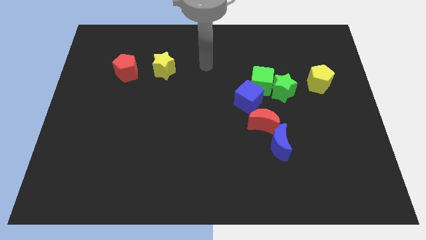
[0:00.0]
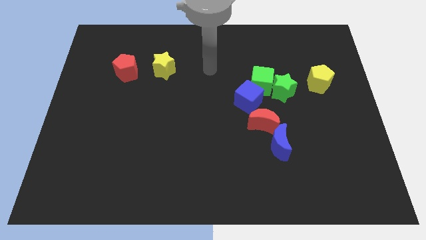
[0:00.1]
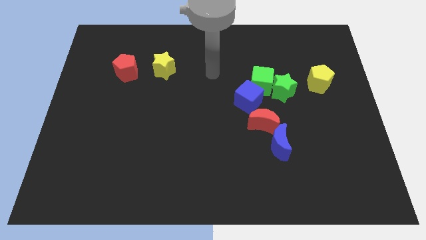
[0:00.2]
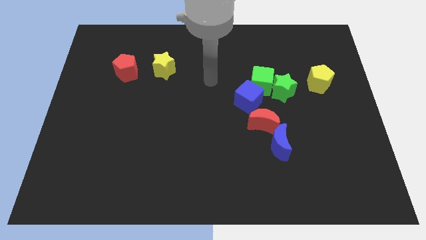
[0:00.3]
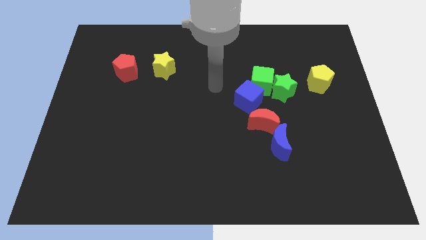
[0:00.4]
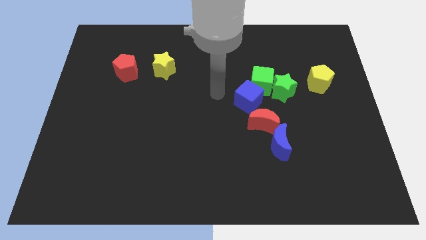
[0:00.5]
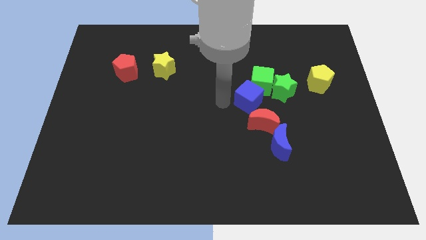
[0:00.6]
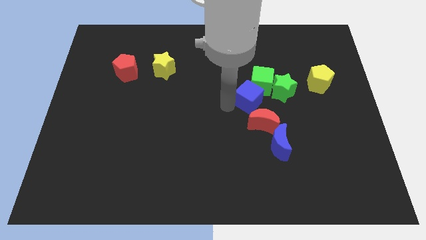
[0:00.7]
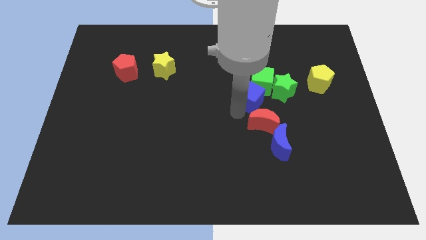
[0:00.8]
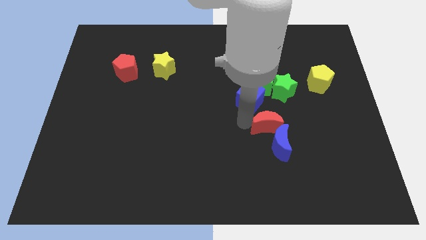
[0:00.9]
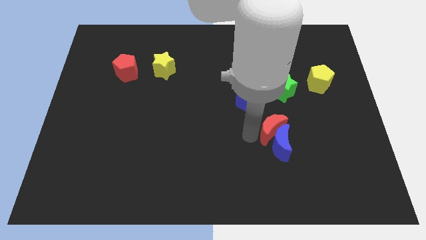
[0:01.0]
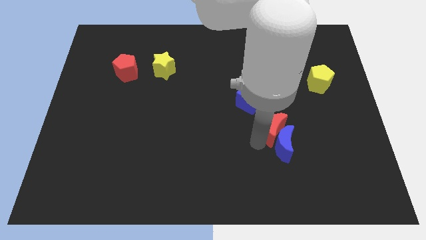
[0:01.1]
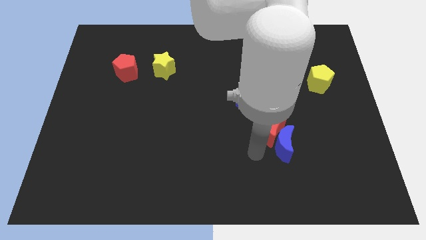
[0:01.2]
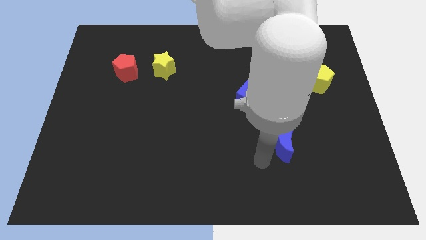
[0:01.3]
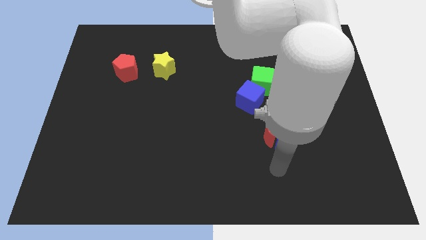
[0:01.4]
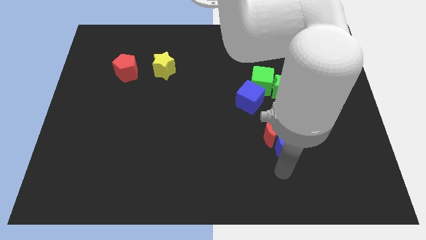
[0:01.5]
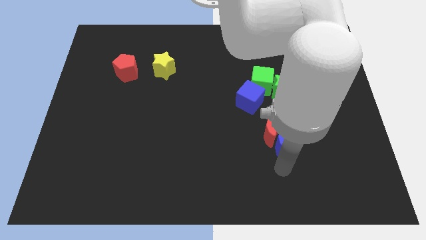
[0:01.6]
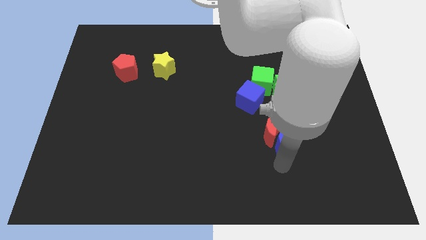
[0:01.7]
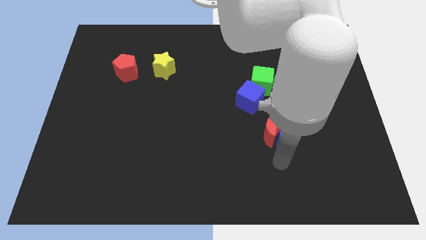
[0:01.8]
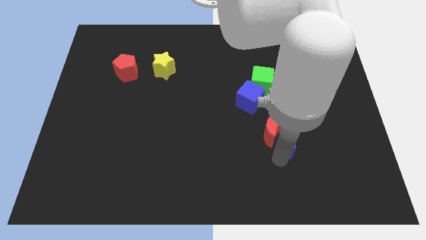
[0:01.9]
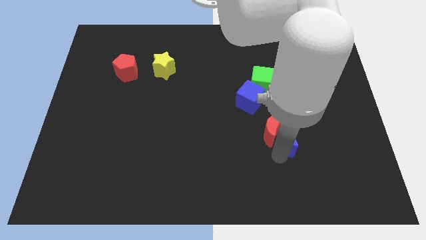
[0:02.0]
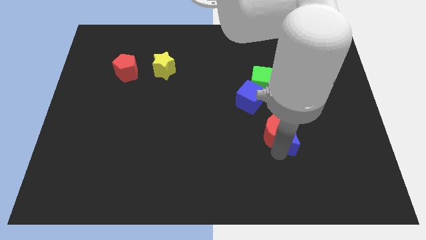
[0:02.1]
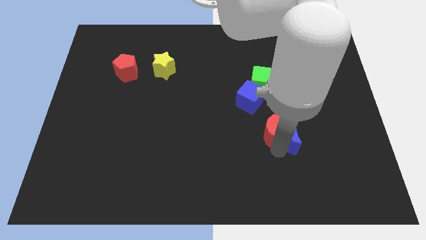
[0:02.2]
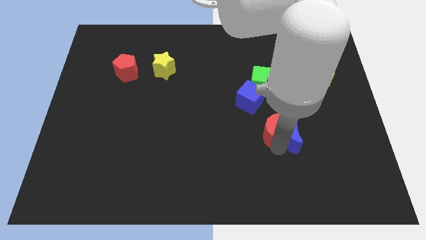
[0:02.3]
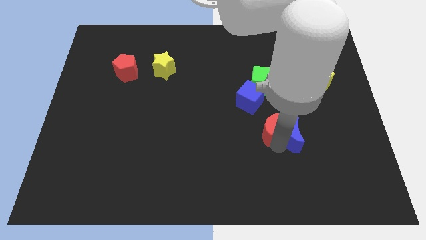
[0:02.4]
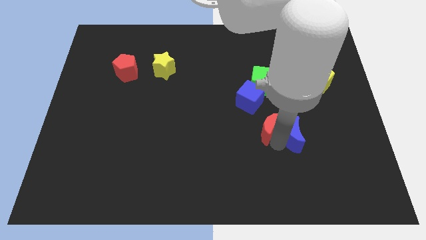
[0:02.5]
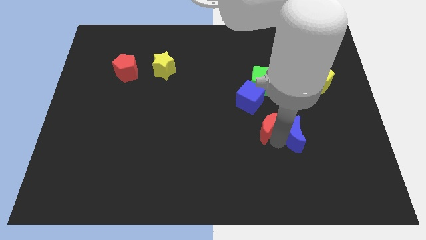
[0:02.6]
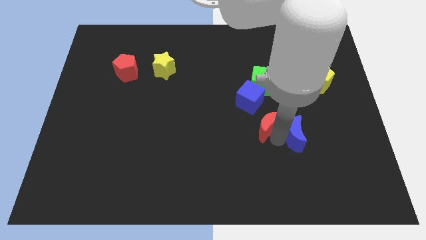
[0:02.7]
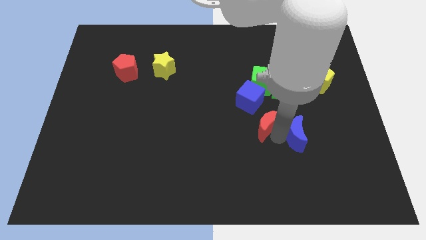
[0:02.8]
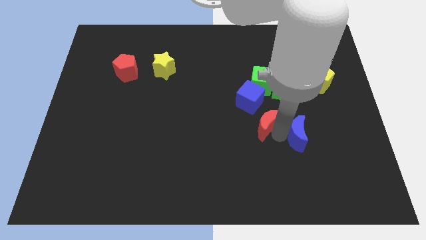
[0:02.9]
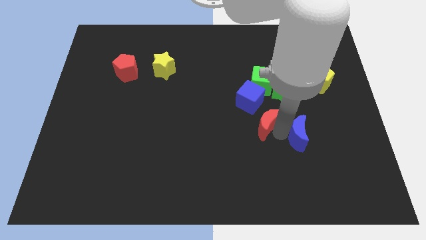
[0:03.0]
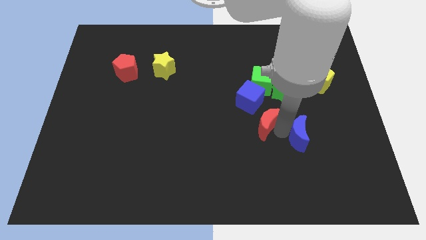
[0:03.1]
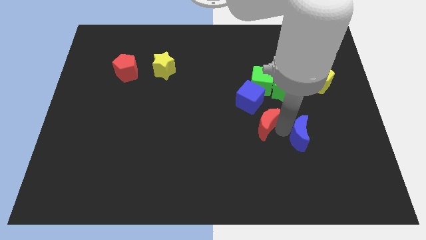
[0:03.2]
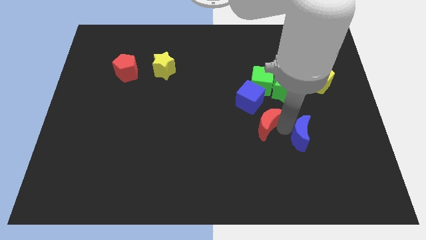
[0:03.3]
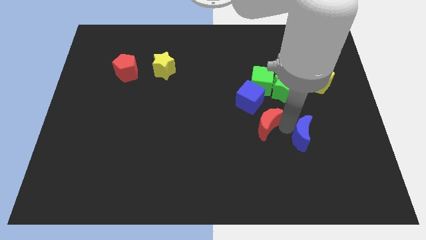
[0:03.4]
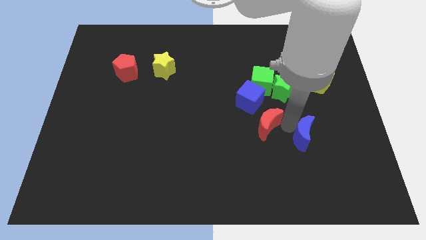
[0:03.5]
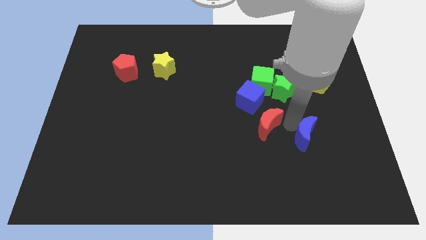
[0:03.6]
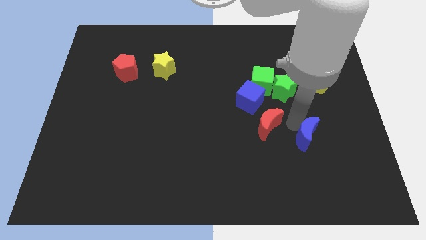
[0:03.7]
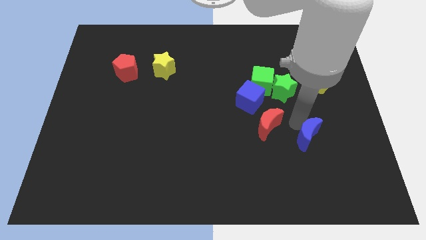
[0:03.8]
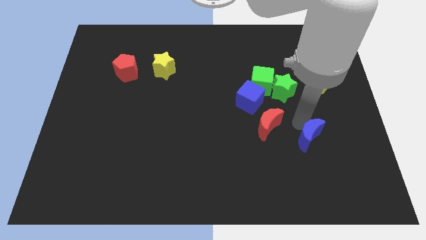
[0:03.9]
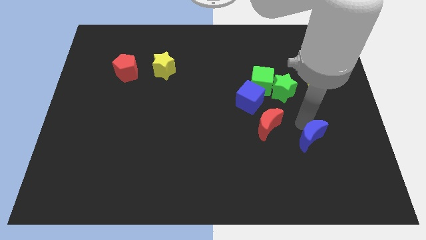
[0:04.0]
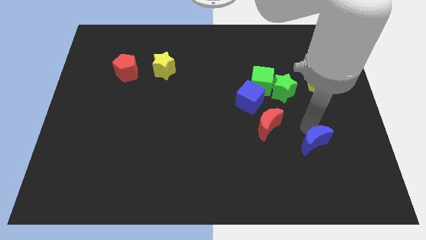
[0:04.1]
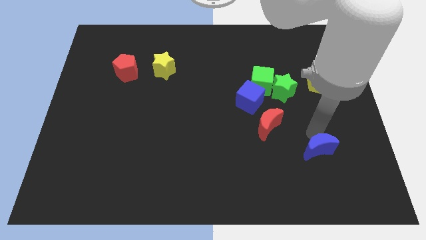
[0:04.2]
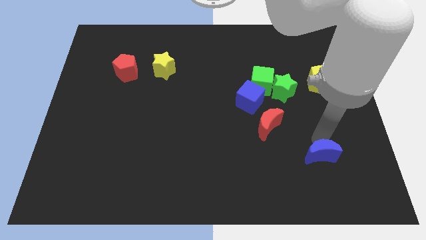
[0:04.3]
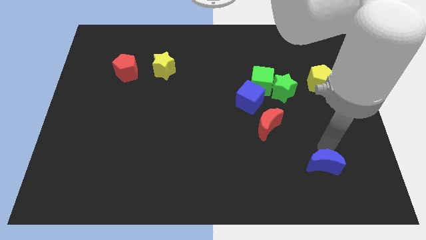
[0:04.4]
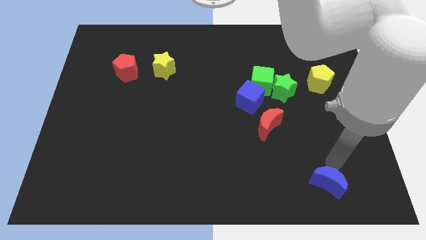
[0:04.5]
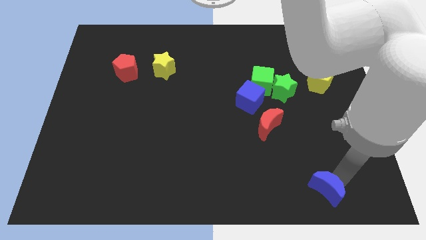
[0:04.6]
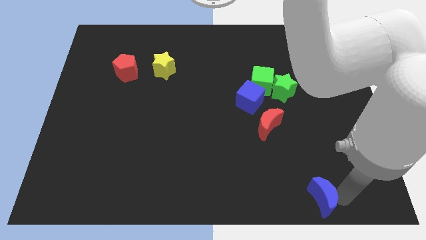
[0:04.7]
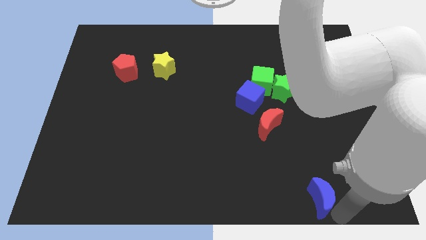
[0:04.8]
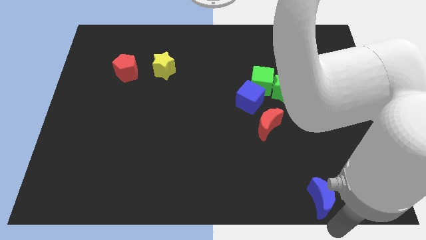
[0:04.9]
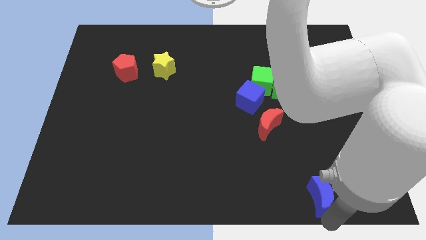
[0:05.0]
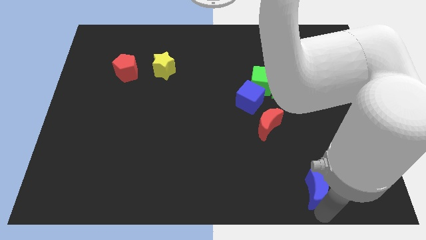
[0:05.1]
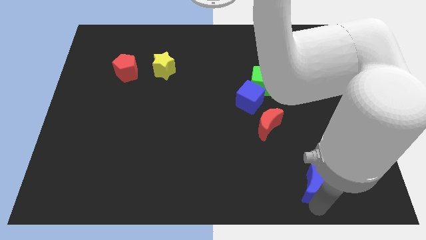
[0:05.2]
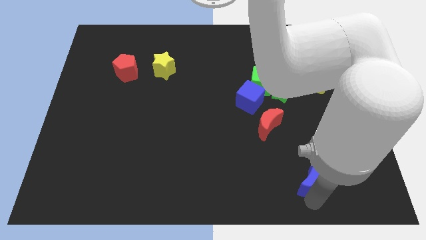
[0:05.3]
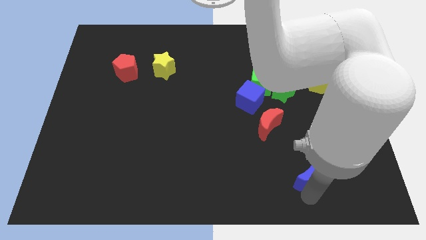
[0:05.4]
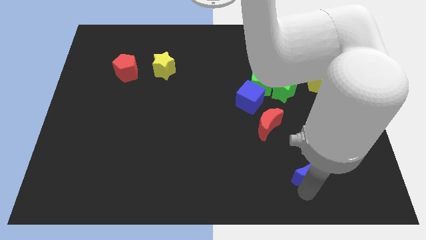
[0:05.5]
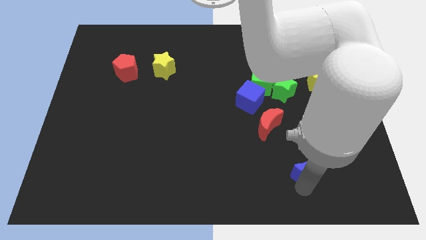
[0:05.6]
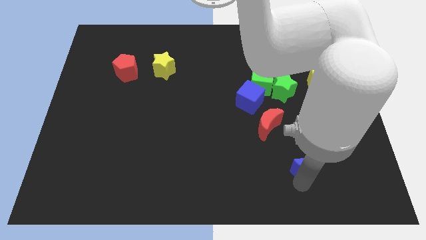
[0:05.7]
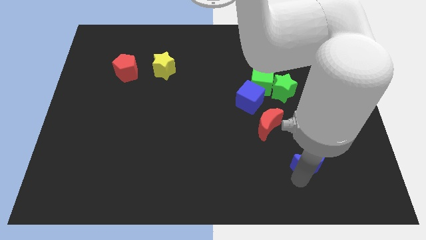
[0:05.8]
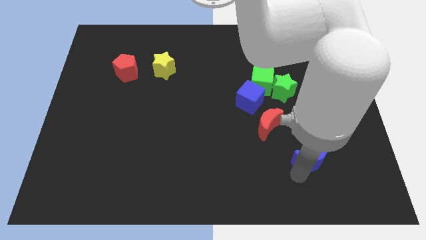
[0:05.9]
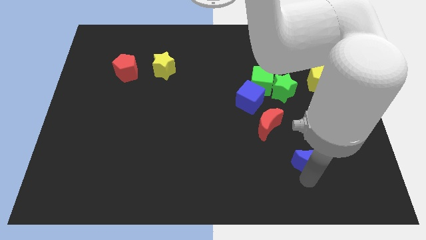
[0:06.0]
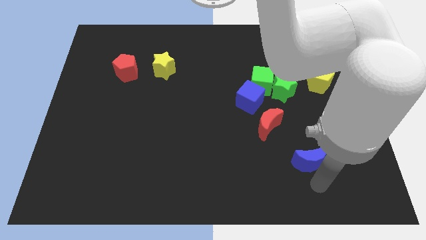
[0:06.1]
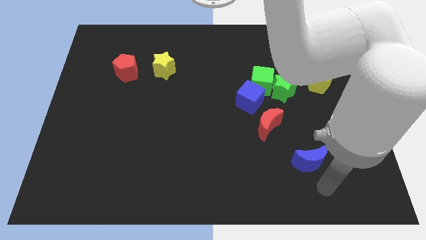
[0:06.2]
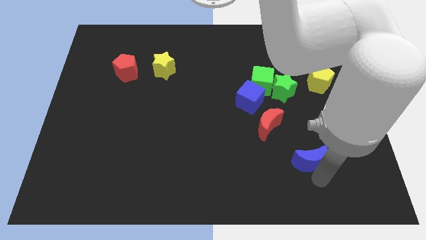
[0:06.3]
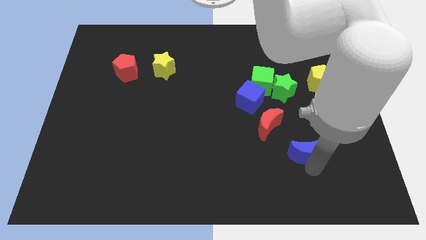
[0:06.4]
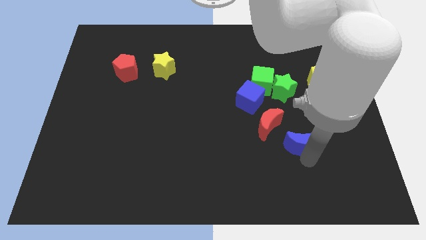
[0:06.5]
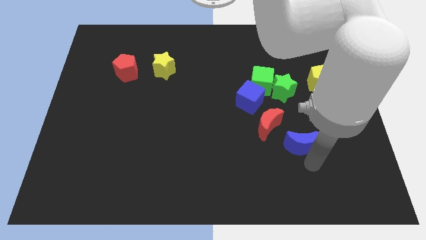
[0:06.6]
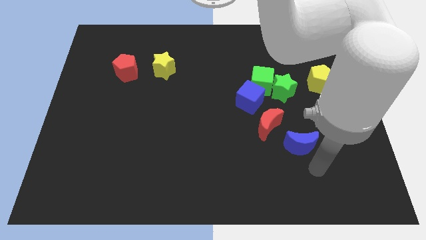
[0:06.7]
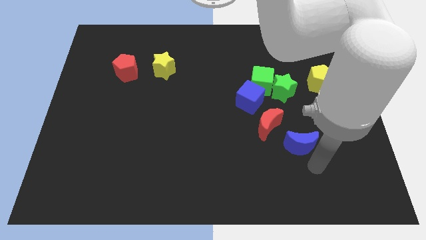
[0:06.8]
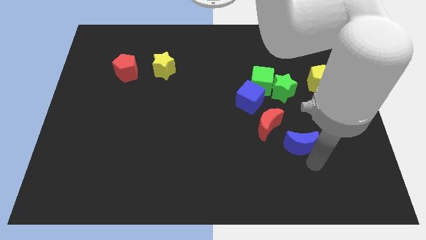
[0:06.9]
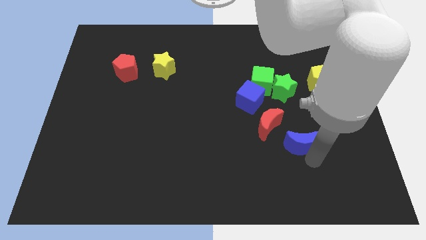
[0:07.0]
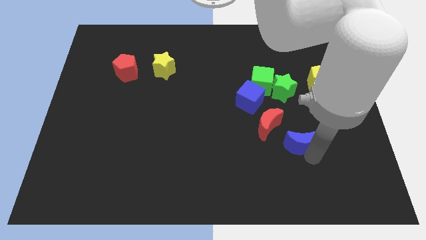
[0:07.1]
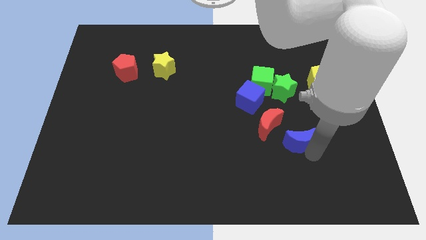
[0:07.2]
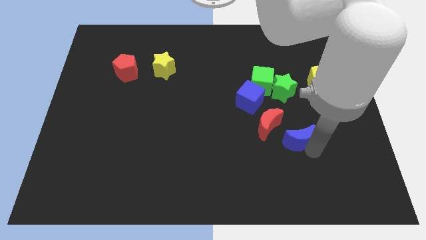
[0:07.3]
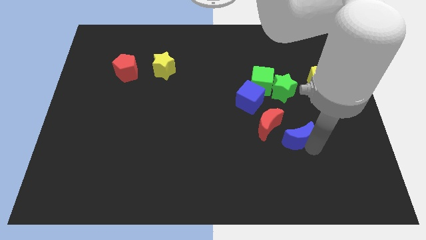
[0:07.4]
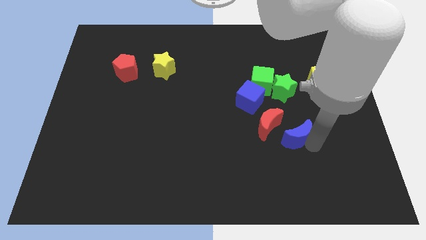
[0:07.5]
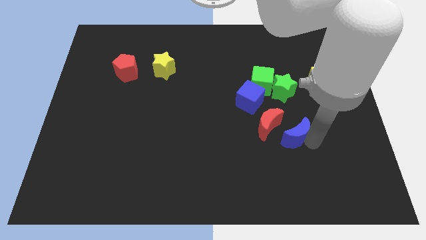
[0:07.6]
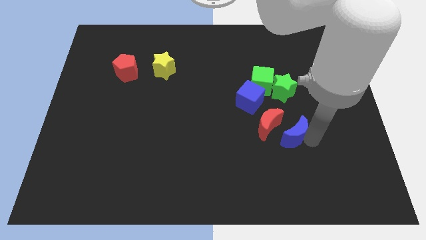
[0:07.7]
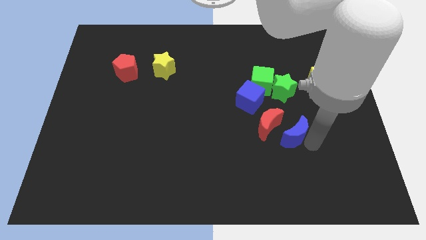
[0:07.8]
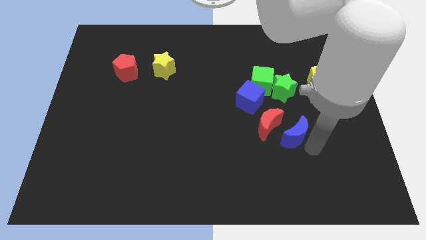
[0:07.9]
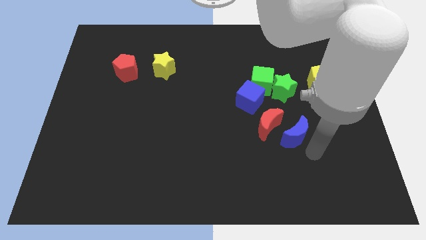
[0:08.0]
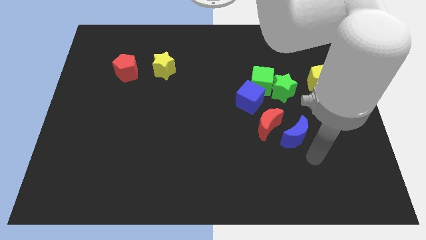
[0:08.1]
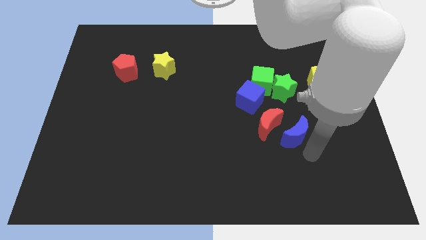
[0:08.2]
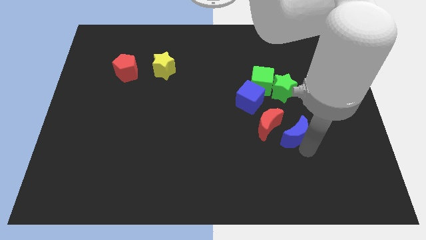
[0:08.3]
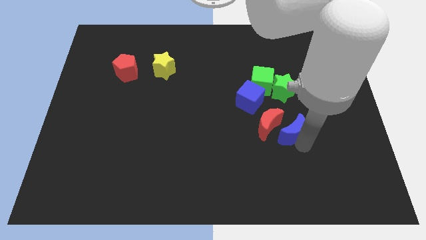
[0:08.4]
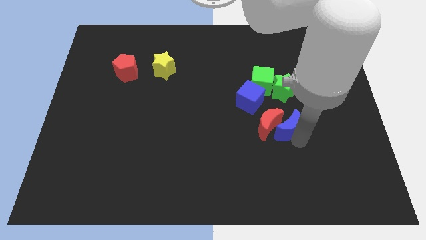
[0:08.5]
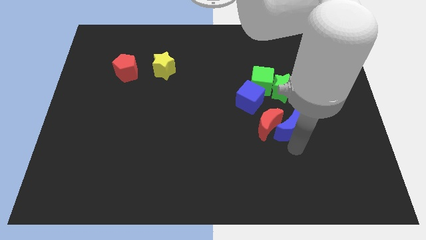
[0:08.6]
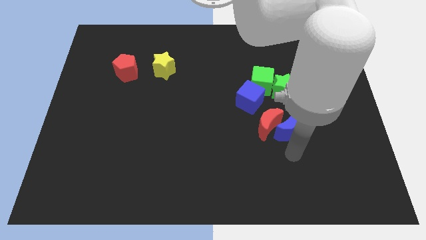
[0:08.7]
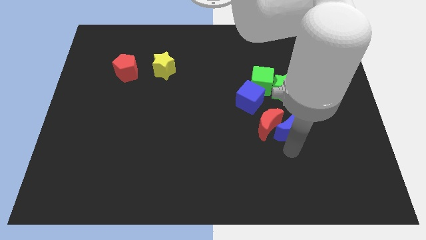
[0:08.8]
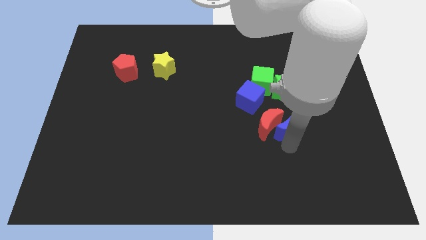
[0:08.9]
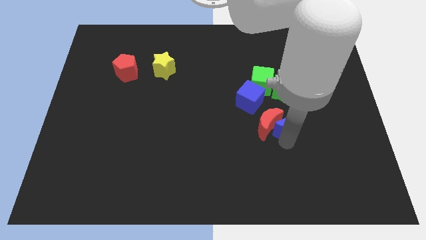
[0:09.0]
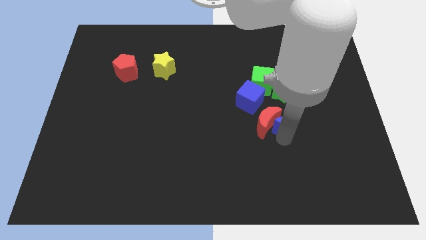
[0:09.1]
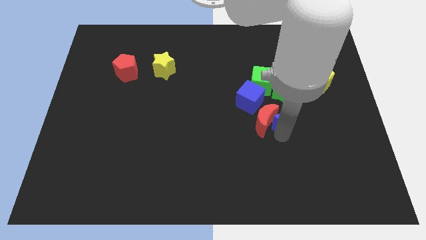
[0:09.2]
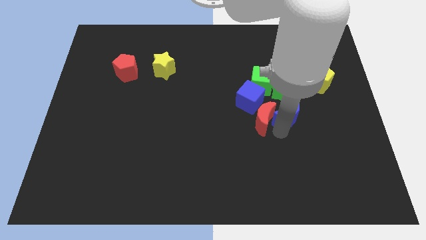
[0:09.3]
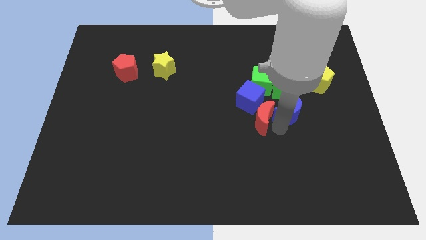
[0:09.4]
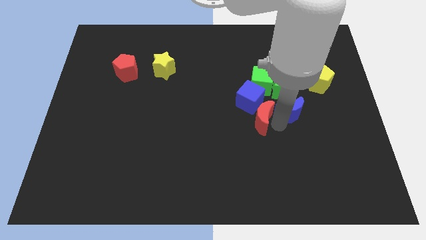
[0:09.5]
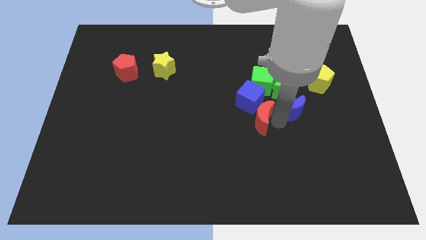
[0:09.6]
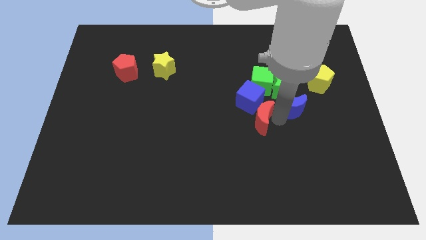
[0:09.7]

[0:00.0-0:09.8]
slide the blue moon next to the green star
